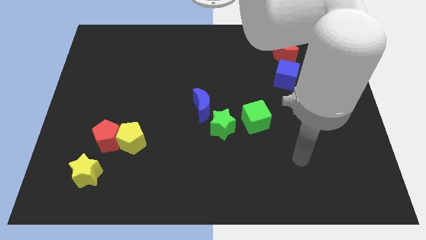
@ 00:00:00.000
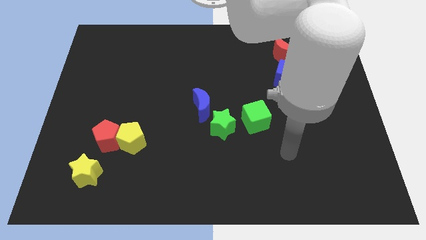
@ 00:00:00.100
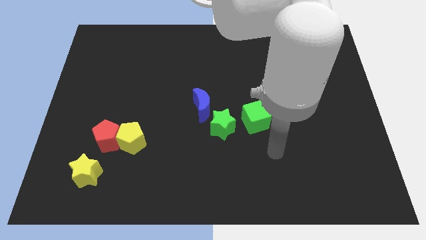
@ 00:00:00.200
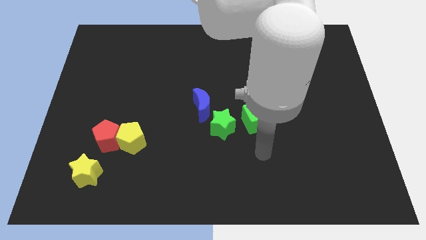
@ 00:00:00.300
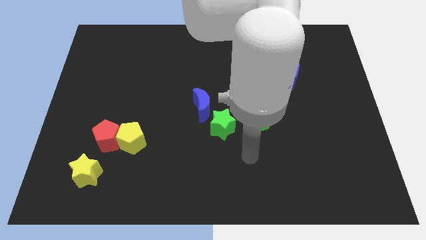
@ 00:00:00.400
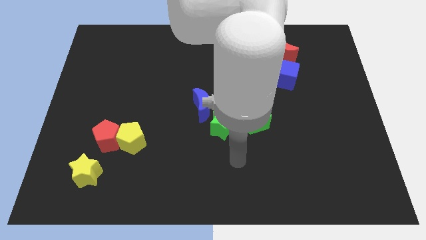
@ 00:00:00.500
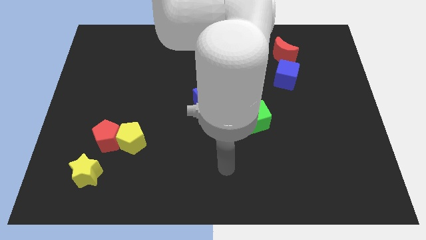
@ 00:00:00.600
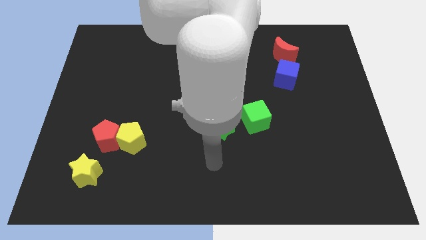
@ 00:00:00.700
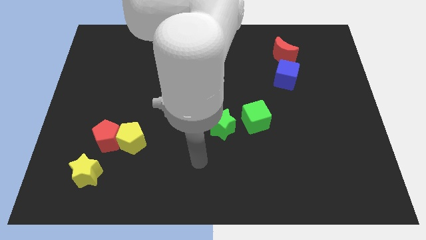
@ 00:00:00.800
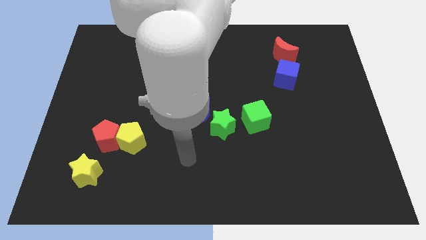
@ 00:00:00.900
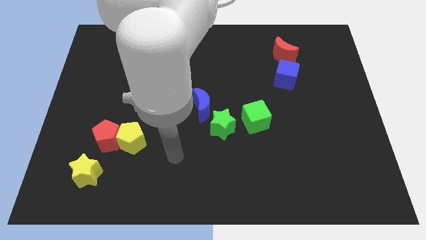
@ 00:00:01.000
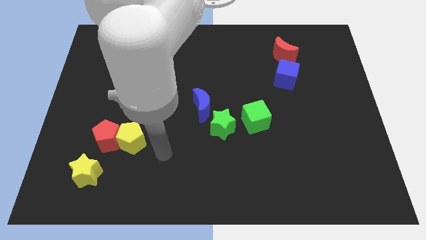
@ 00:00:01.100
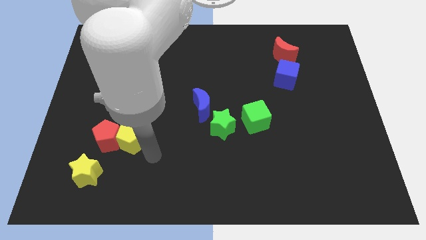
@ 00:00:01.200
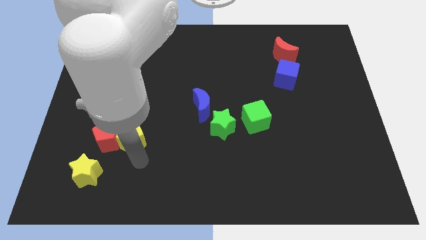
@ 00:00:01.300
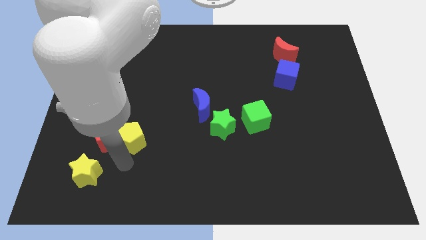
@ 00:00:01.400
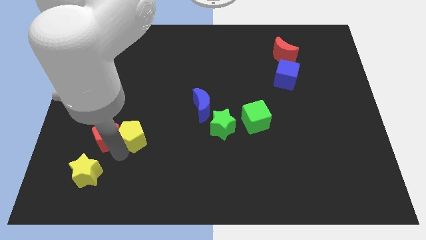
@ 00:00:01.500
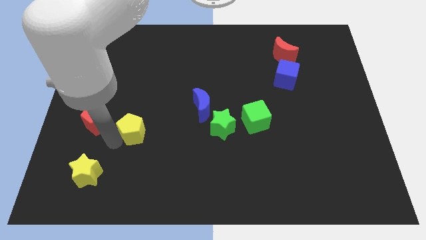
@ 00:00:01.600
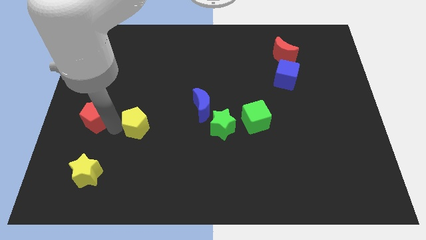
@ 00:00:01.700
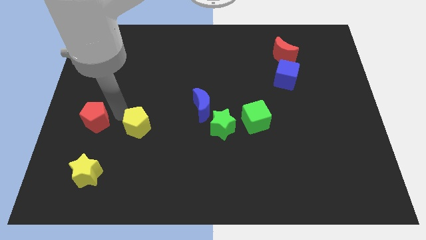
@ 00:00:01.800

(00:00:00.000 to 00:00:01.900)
move the yellow pentagon away from the red pentagon

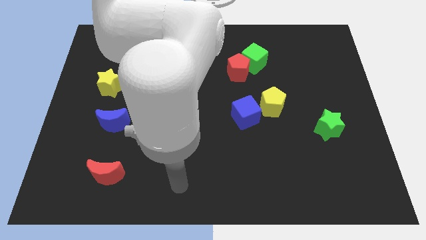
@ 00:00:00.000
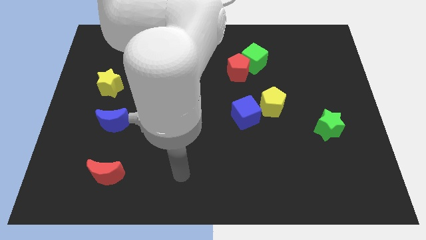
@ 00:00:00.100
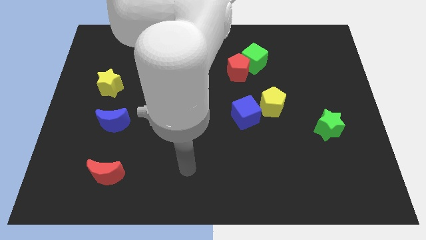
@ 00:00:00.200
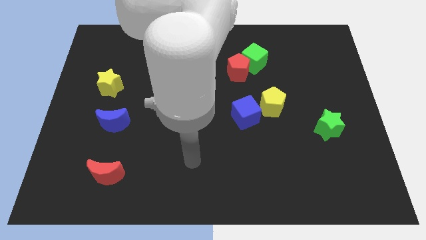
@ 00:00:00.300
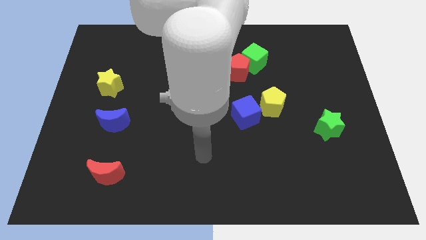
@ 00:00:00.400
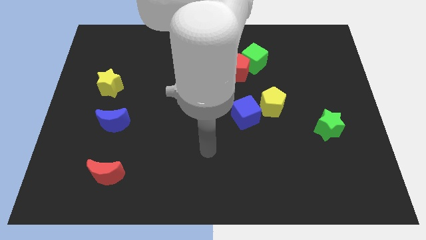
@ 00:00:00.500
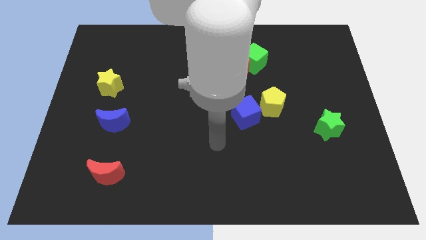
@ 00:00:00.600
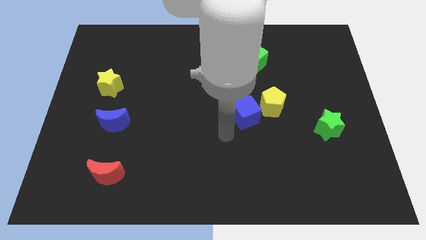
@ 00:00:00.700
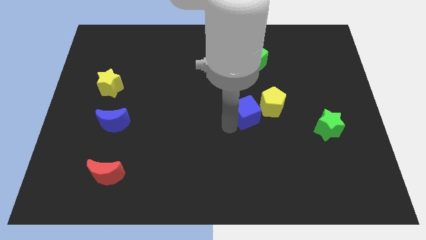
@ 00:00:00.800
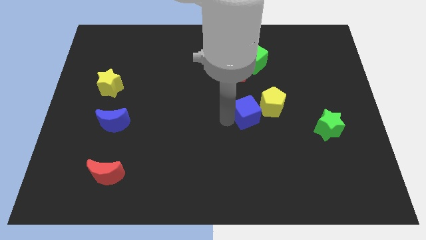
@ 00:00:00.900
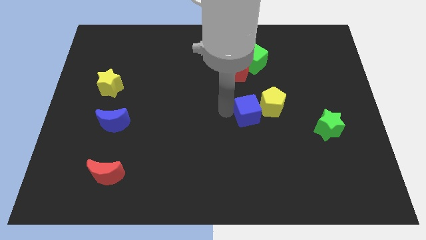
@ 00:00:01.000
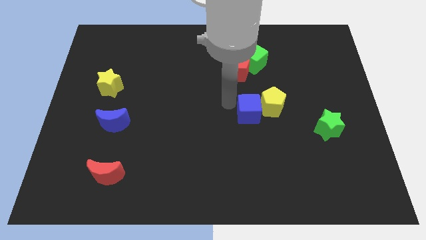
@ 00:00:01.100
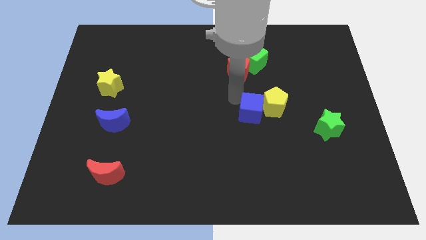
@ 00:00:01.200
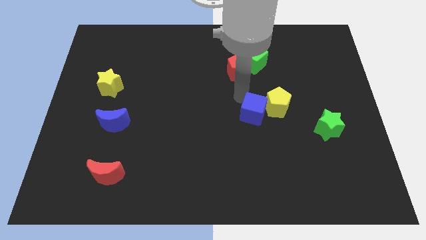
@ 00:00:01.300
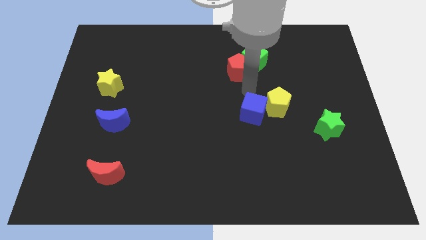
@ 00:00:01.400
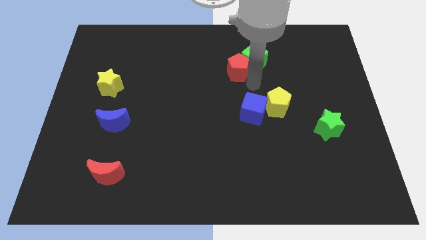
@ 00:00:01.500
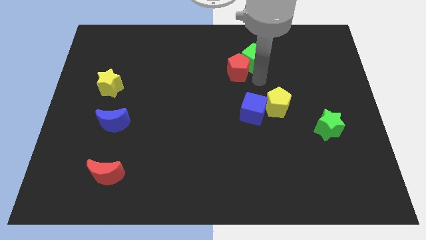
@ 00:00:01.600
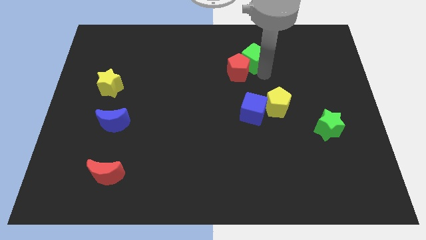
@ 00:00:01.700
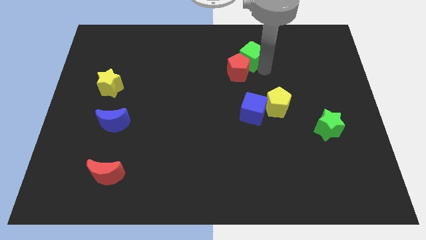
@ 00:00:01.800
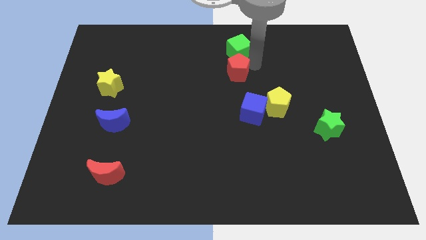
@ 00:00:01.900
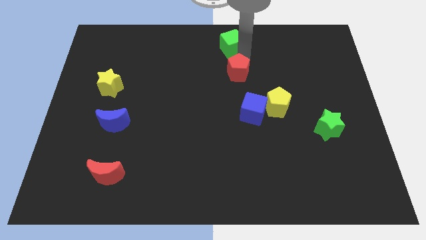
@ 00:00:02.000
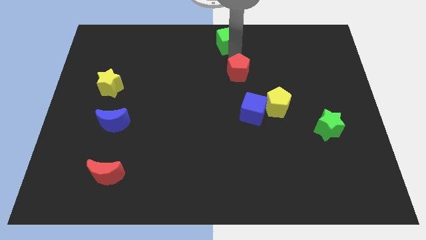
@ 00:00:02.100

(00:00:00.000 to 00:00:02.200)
separate the red pentagon from the green cube

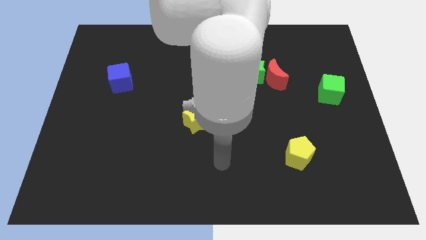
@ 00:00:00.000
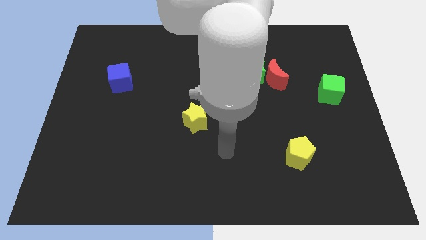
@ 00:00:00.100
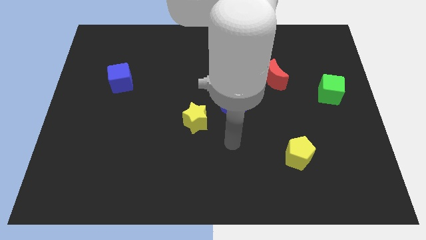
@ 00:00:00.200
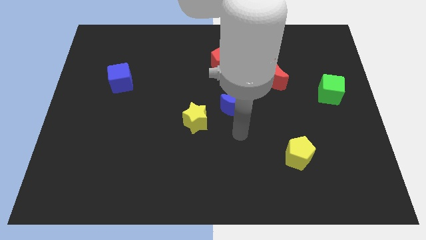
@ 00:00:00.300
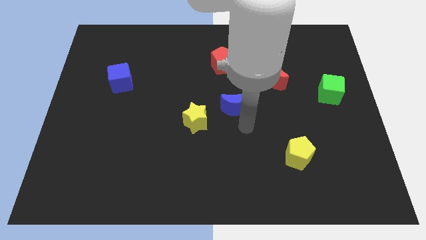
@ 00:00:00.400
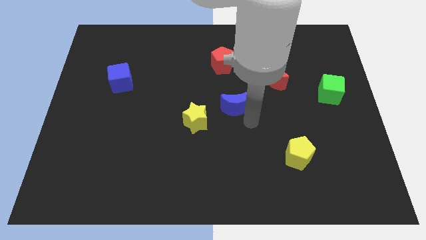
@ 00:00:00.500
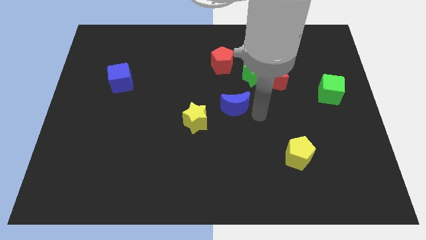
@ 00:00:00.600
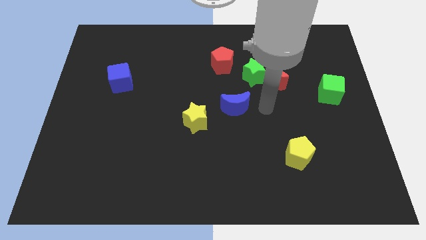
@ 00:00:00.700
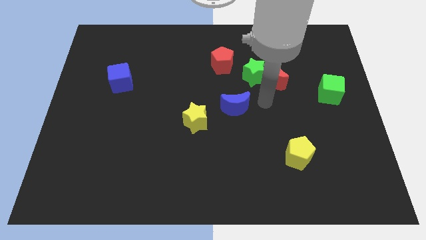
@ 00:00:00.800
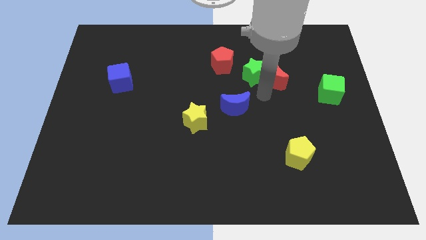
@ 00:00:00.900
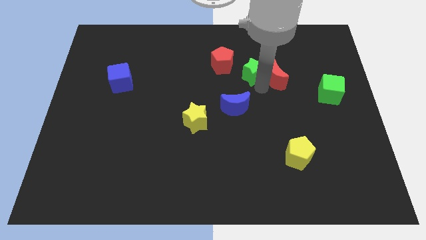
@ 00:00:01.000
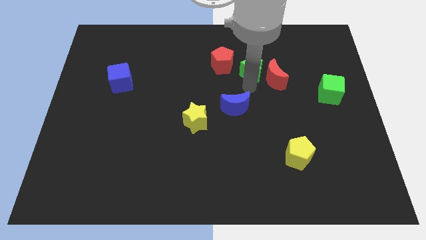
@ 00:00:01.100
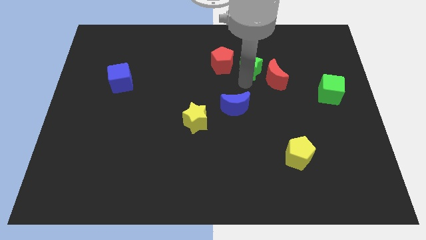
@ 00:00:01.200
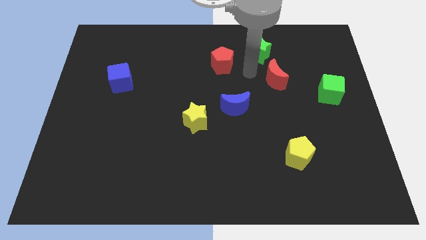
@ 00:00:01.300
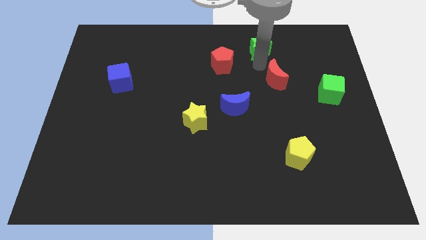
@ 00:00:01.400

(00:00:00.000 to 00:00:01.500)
pull the red moon apart from the green star

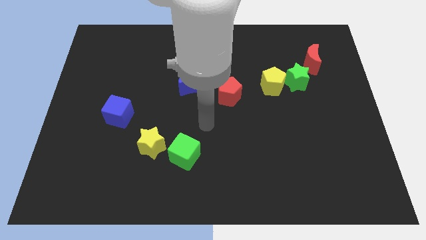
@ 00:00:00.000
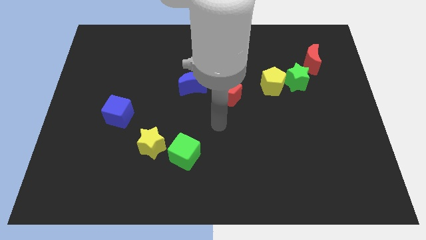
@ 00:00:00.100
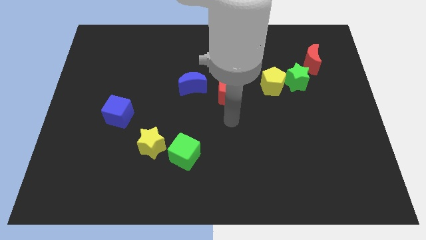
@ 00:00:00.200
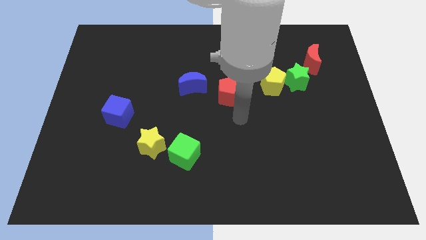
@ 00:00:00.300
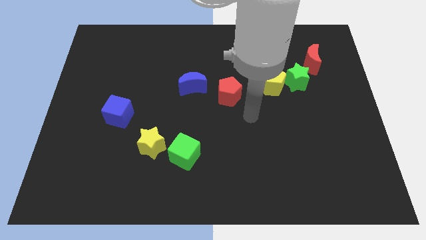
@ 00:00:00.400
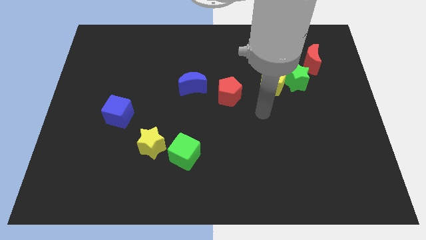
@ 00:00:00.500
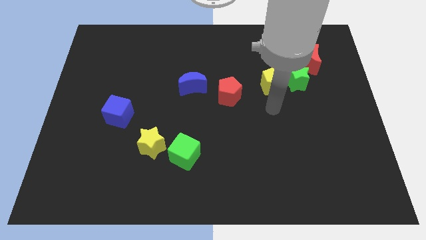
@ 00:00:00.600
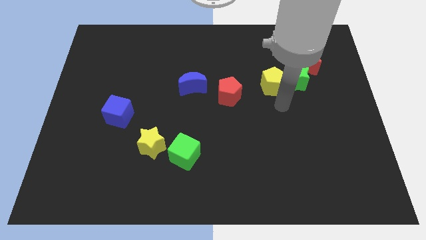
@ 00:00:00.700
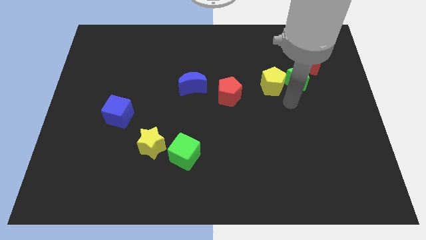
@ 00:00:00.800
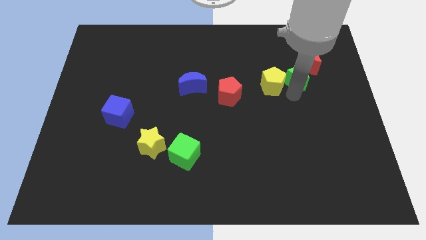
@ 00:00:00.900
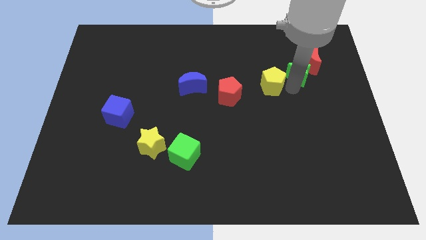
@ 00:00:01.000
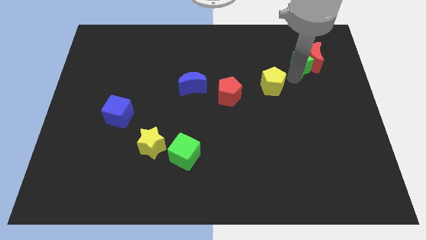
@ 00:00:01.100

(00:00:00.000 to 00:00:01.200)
pull the yellow pentagon apart from the green star

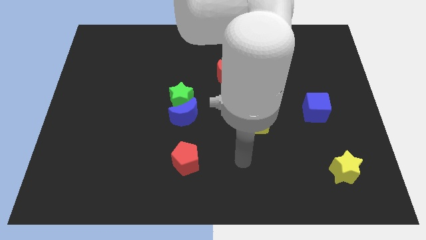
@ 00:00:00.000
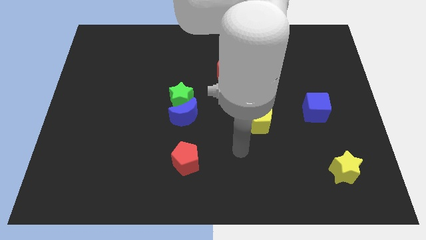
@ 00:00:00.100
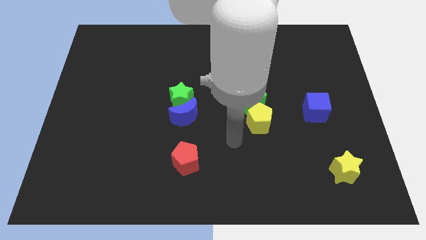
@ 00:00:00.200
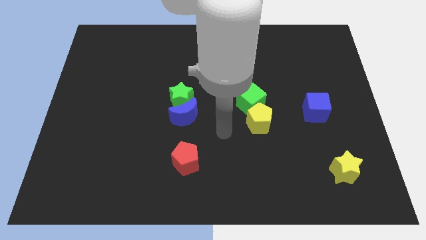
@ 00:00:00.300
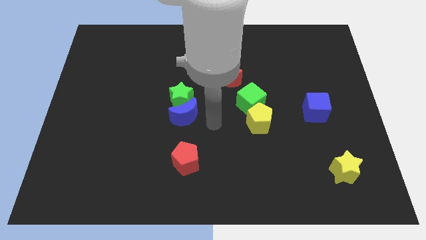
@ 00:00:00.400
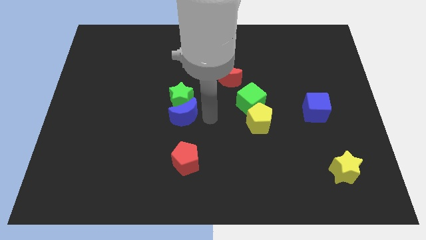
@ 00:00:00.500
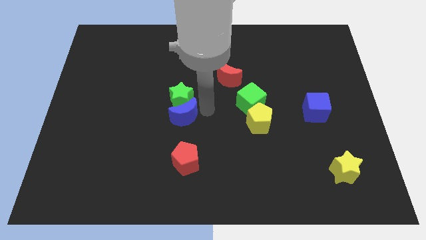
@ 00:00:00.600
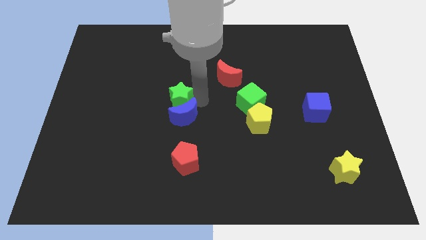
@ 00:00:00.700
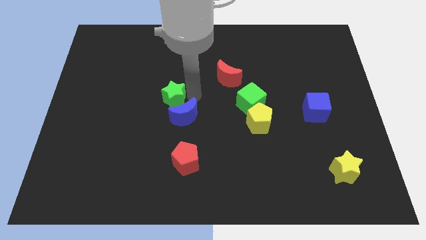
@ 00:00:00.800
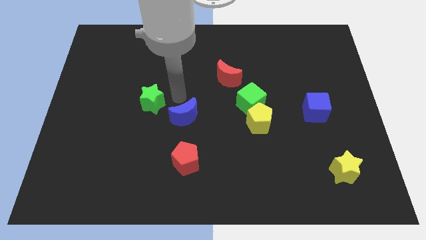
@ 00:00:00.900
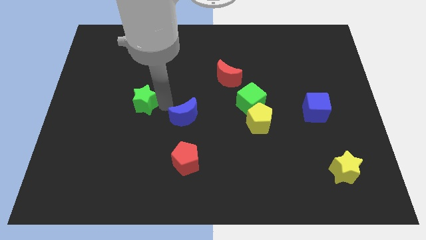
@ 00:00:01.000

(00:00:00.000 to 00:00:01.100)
separate the blue moon from the green star

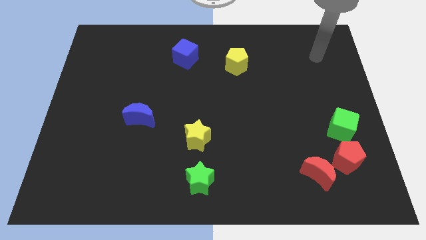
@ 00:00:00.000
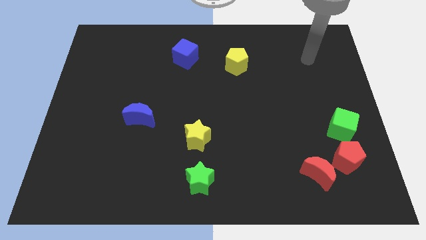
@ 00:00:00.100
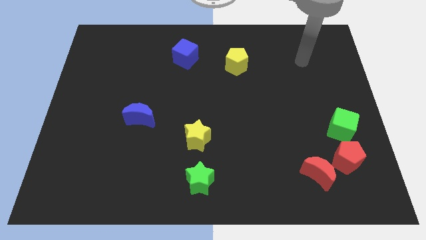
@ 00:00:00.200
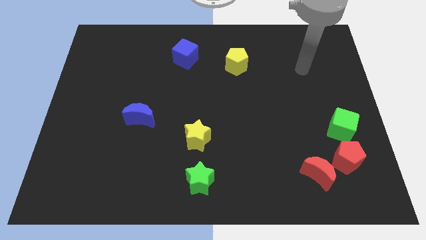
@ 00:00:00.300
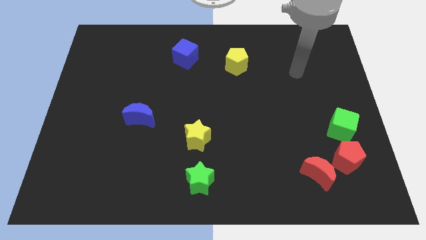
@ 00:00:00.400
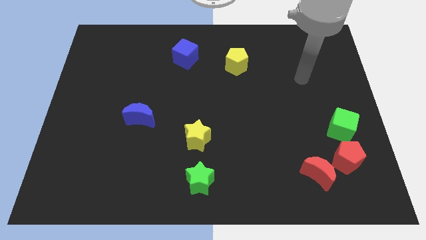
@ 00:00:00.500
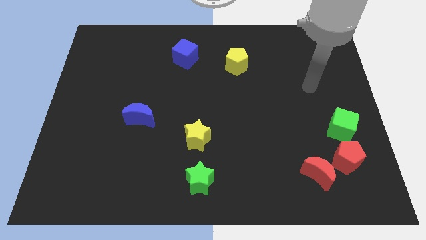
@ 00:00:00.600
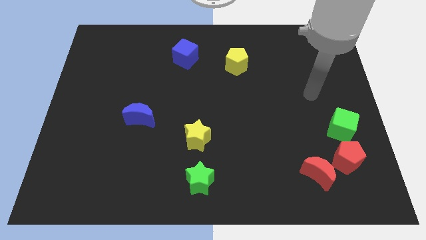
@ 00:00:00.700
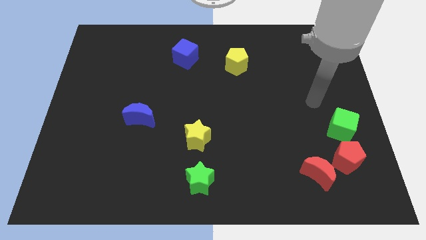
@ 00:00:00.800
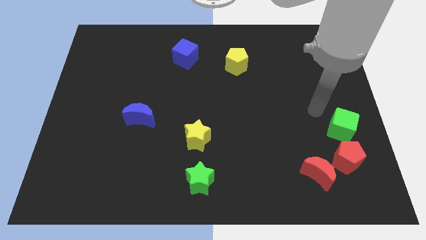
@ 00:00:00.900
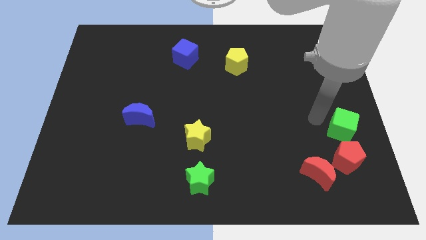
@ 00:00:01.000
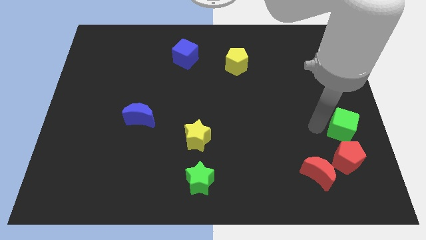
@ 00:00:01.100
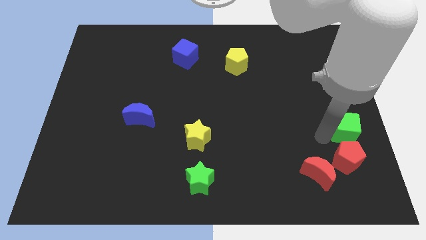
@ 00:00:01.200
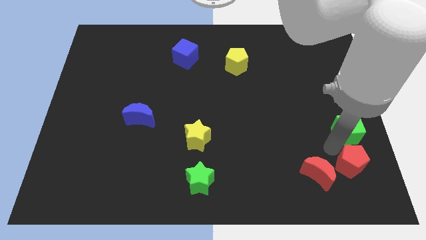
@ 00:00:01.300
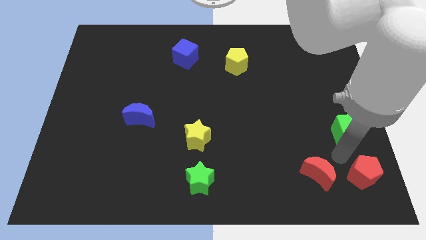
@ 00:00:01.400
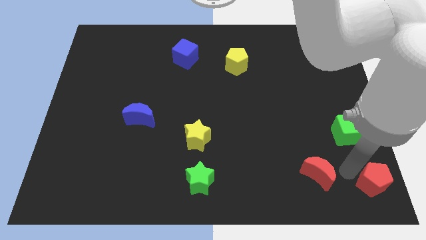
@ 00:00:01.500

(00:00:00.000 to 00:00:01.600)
separate the red moon from the red pentagon
